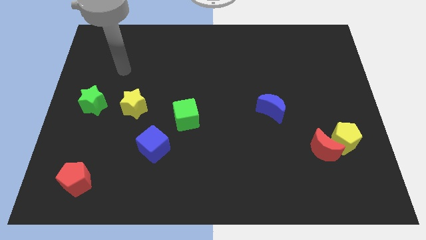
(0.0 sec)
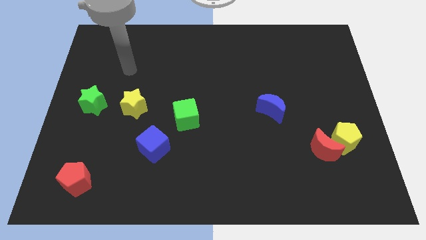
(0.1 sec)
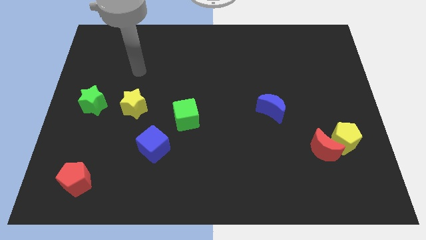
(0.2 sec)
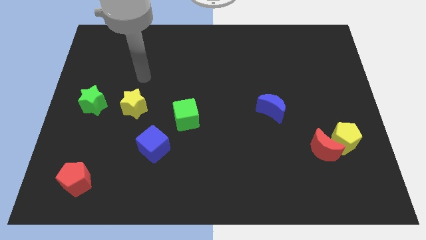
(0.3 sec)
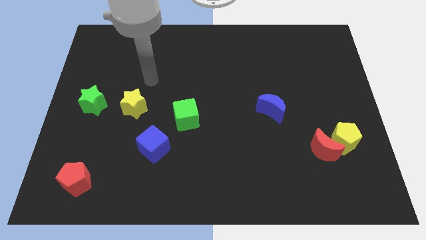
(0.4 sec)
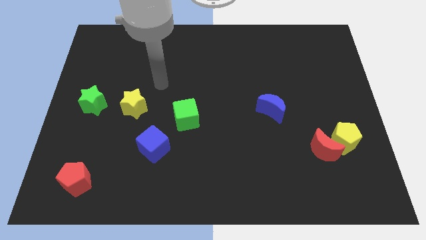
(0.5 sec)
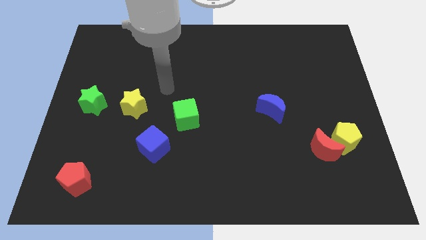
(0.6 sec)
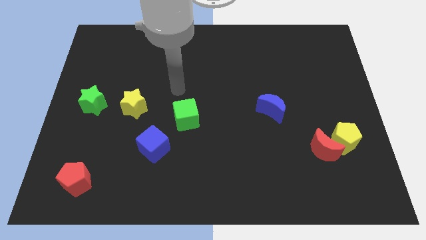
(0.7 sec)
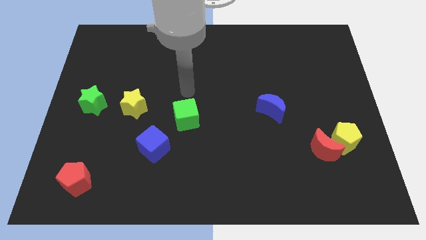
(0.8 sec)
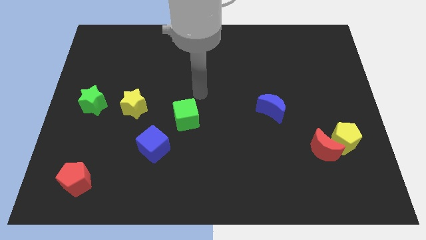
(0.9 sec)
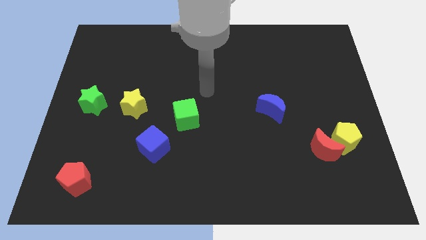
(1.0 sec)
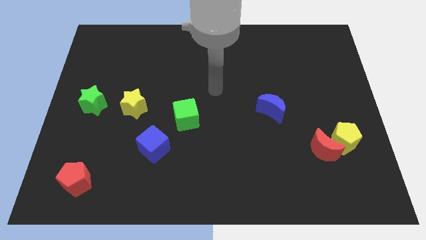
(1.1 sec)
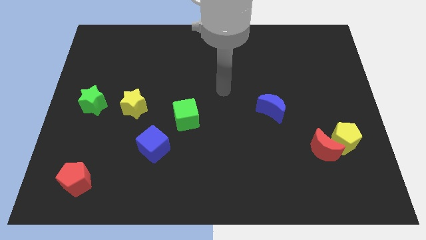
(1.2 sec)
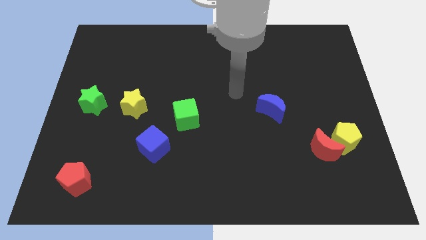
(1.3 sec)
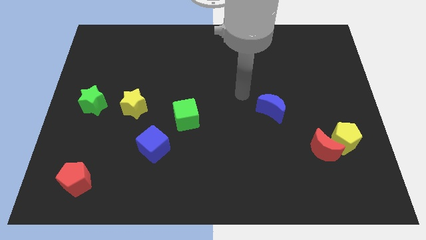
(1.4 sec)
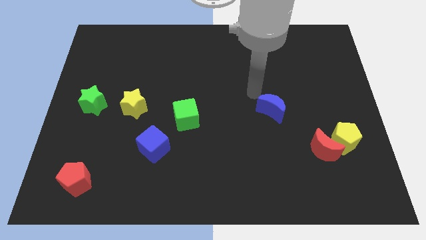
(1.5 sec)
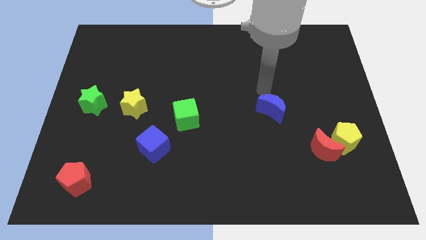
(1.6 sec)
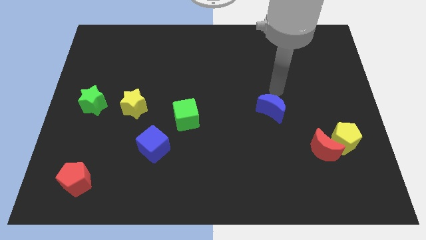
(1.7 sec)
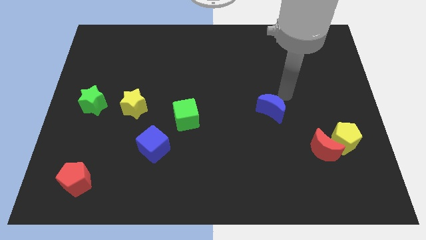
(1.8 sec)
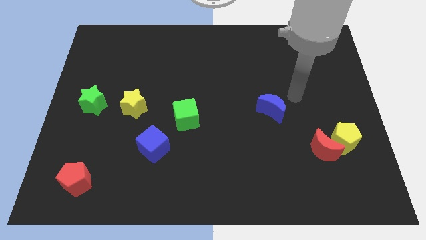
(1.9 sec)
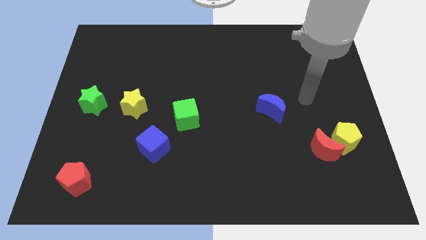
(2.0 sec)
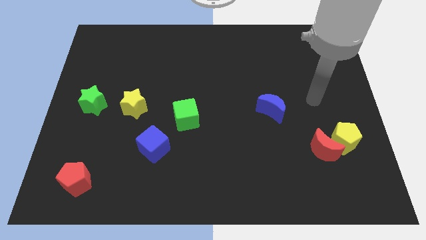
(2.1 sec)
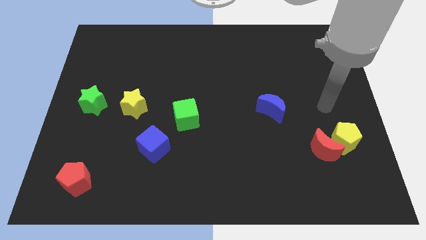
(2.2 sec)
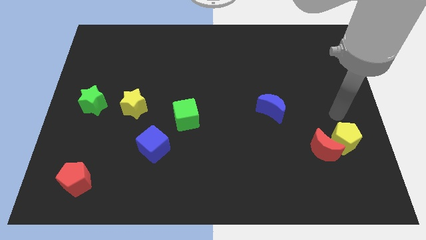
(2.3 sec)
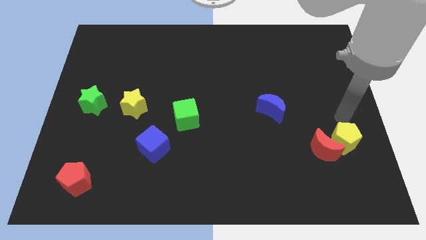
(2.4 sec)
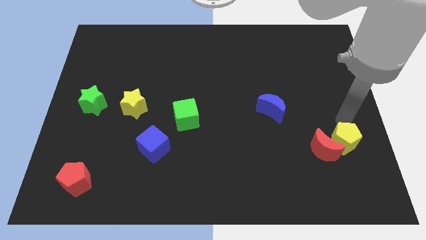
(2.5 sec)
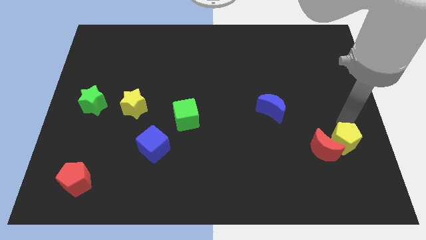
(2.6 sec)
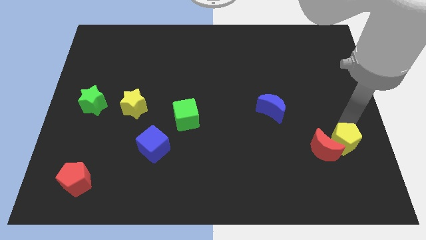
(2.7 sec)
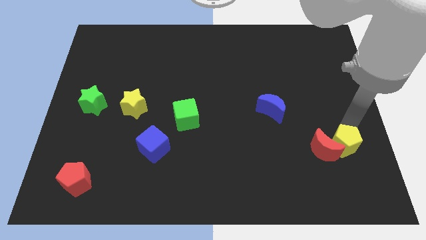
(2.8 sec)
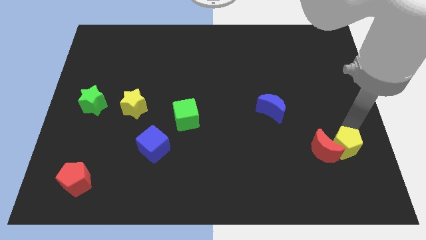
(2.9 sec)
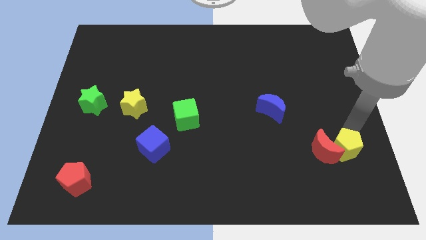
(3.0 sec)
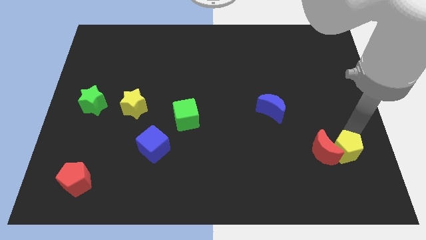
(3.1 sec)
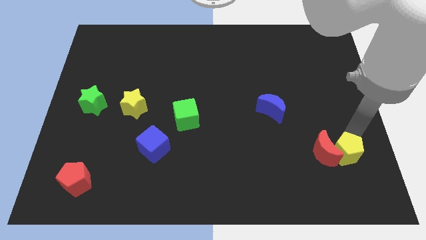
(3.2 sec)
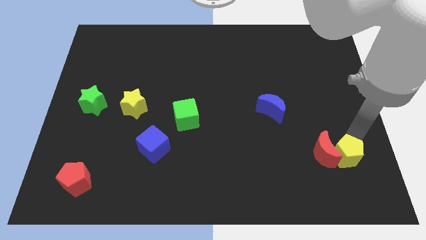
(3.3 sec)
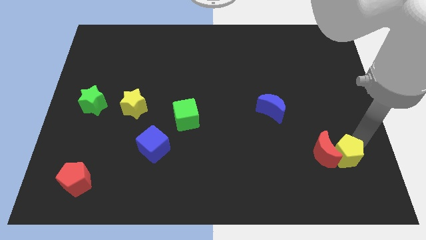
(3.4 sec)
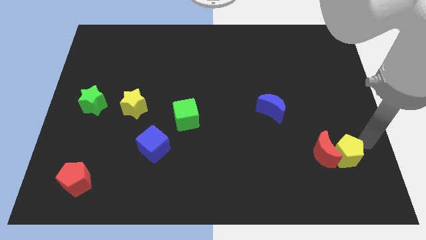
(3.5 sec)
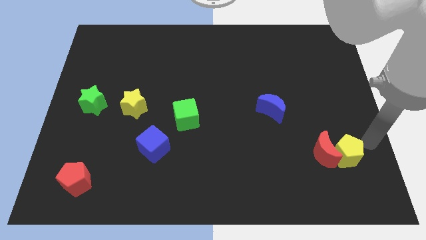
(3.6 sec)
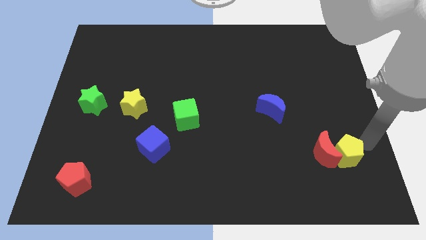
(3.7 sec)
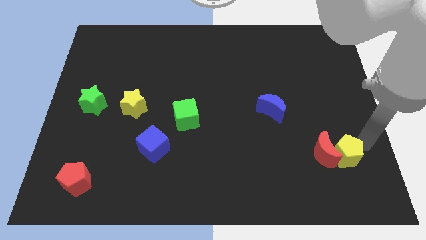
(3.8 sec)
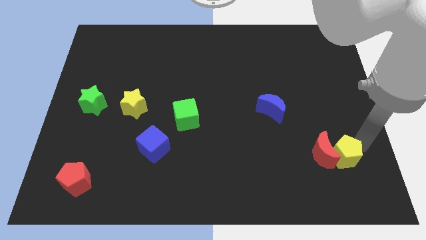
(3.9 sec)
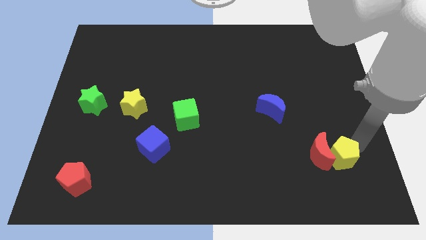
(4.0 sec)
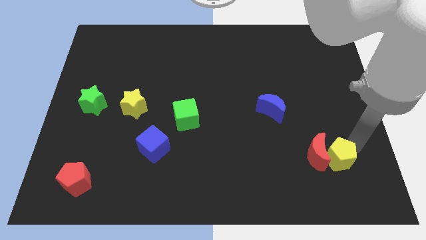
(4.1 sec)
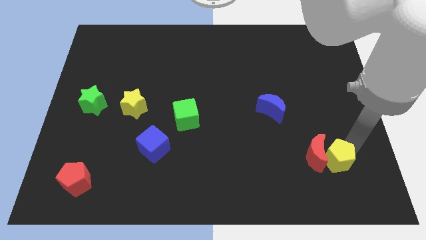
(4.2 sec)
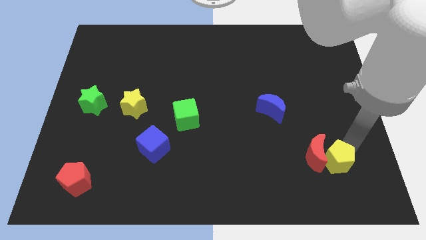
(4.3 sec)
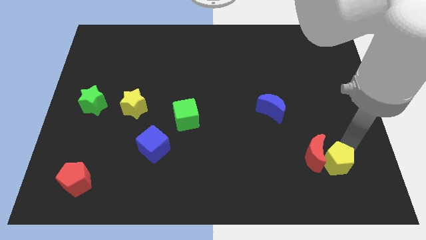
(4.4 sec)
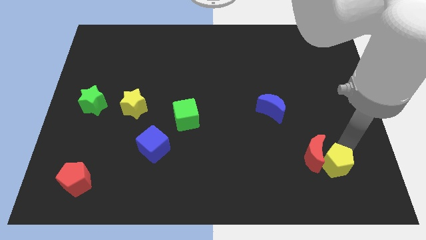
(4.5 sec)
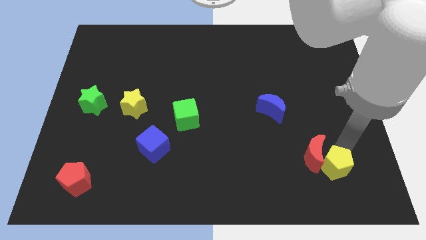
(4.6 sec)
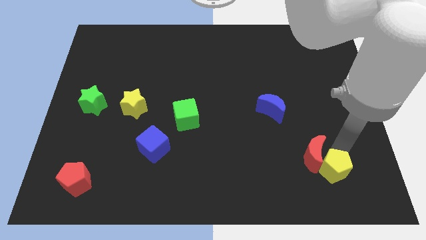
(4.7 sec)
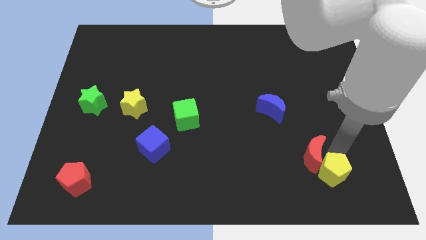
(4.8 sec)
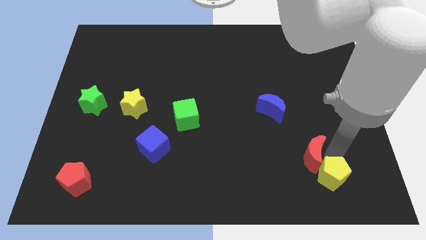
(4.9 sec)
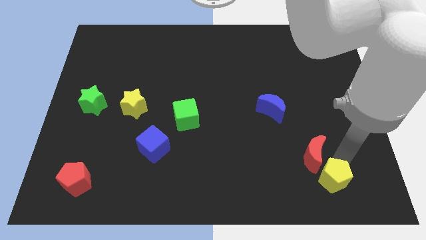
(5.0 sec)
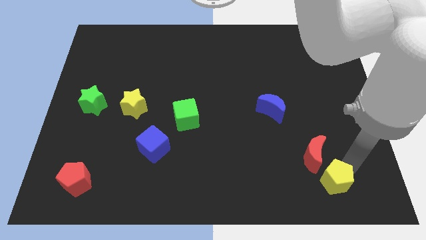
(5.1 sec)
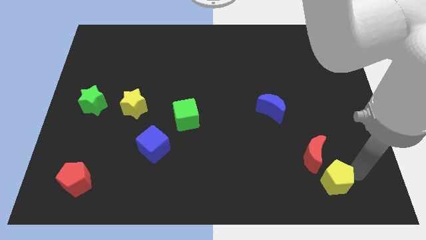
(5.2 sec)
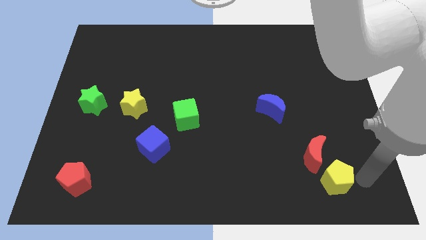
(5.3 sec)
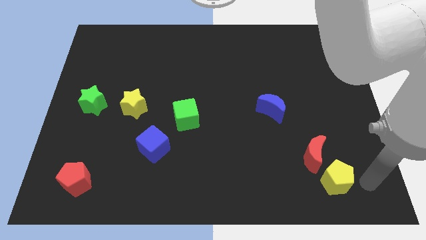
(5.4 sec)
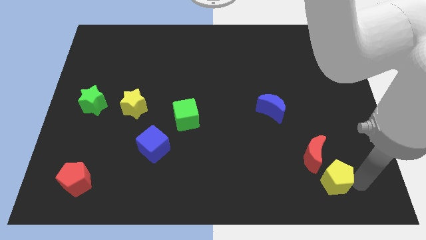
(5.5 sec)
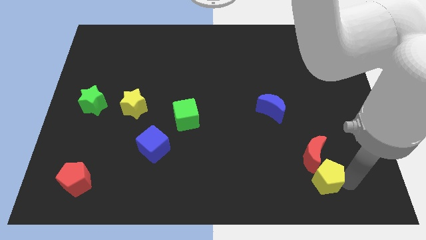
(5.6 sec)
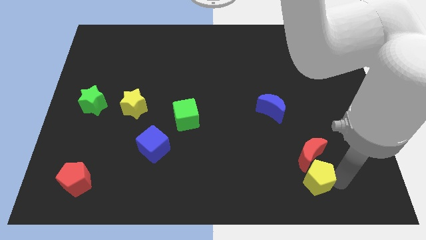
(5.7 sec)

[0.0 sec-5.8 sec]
slide the yellow pentagon diagonally down and to the left of the red moon

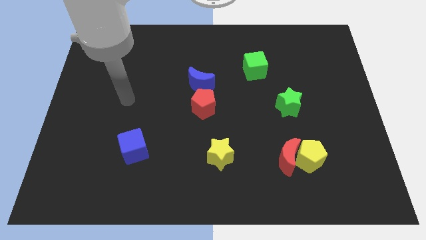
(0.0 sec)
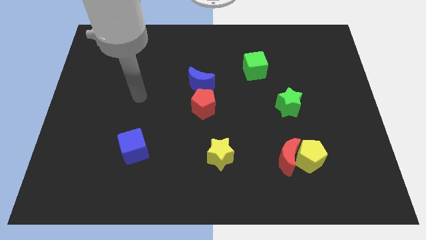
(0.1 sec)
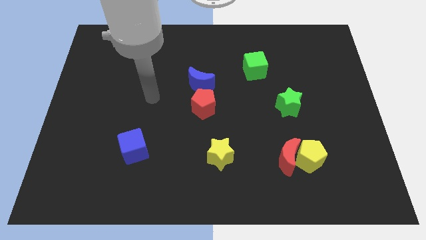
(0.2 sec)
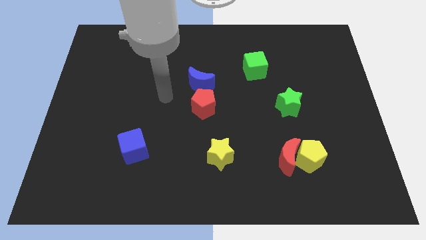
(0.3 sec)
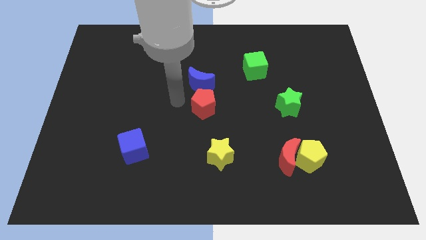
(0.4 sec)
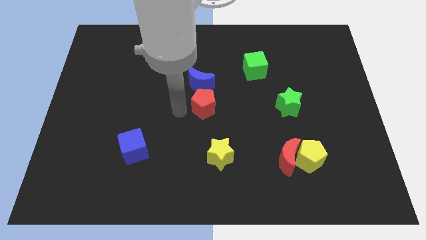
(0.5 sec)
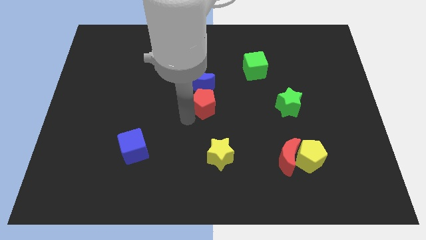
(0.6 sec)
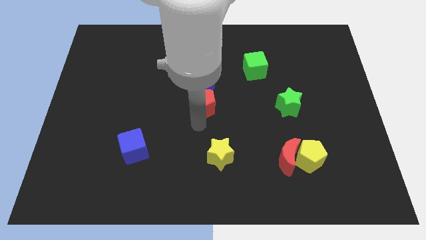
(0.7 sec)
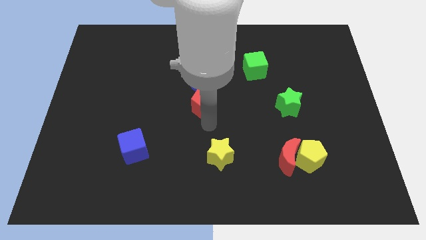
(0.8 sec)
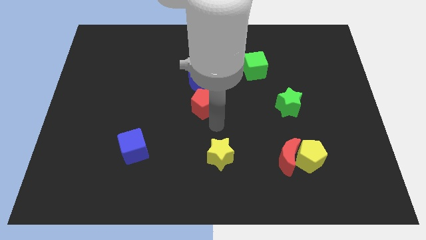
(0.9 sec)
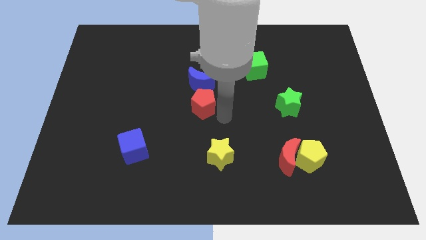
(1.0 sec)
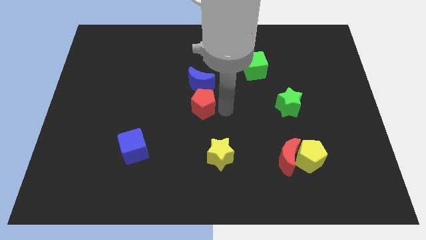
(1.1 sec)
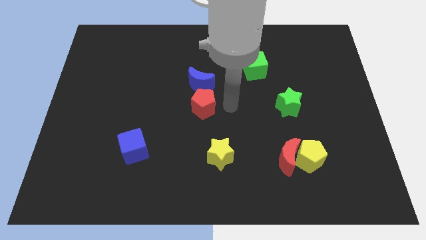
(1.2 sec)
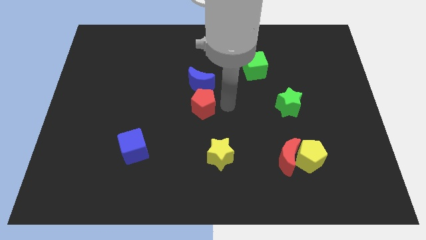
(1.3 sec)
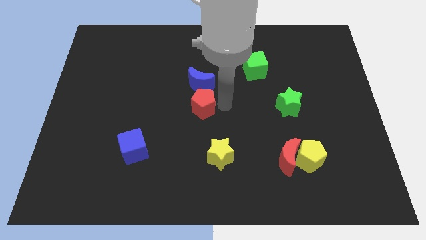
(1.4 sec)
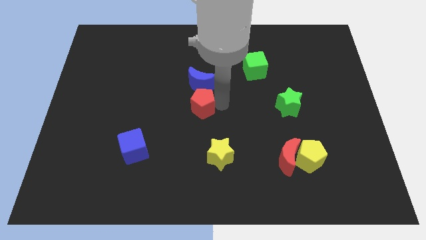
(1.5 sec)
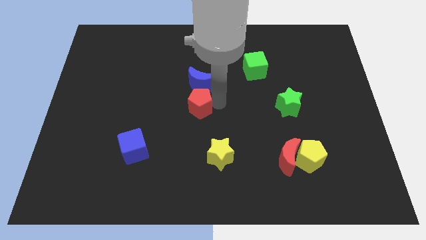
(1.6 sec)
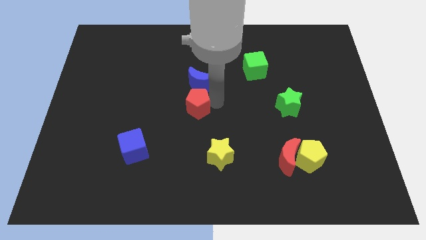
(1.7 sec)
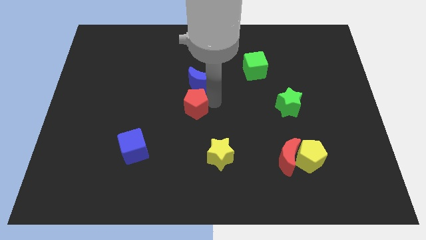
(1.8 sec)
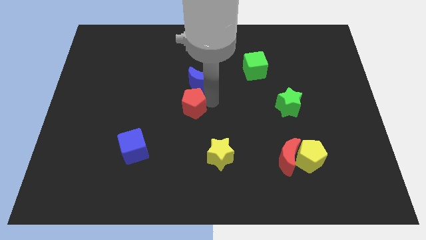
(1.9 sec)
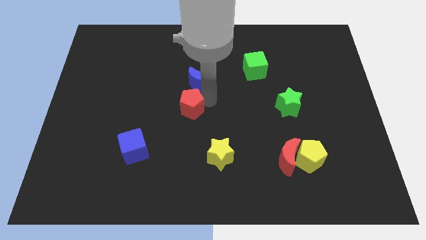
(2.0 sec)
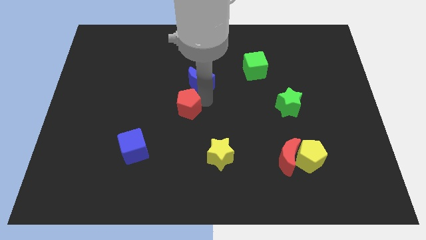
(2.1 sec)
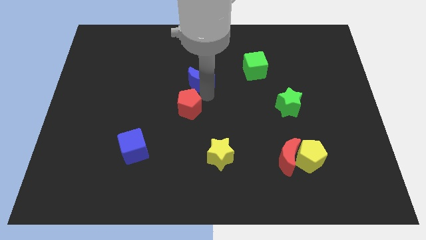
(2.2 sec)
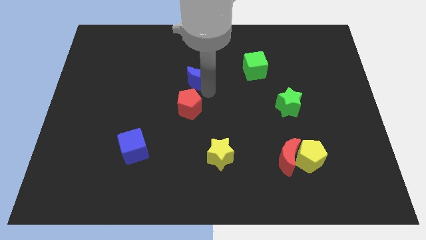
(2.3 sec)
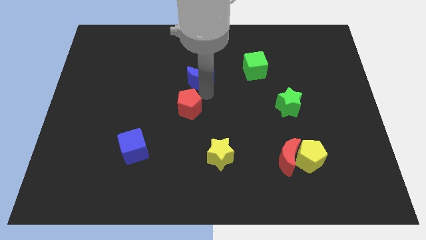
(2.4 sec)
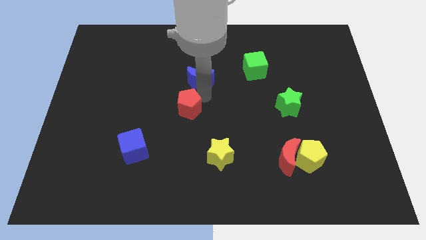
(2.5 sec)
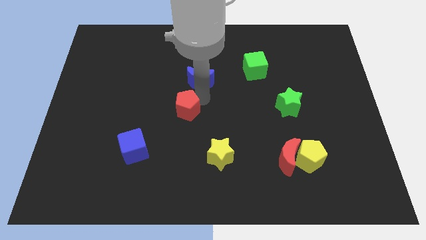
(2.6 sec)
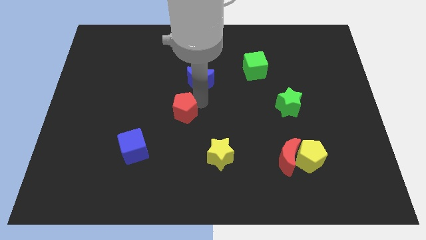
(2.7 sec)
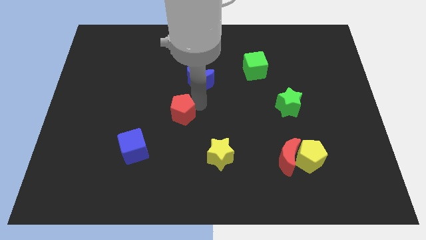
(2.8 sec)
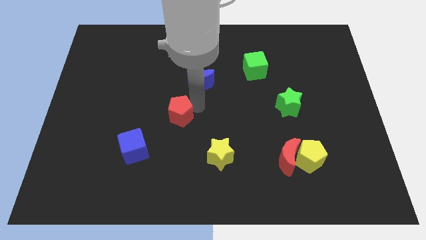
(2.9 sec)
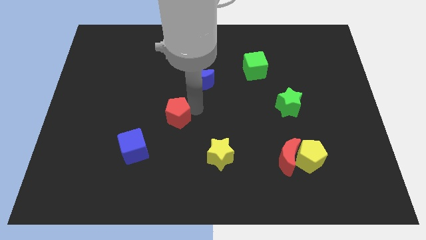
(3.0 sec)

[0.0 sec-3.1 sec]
put the red pentagon diagonally up and to the right of the blue cube
